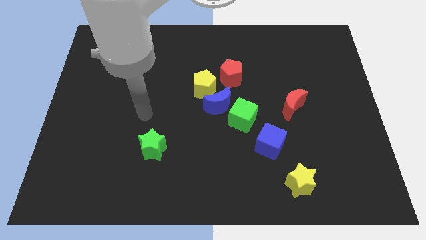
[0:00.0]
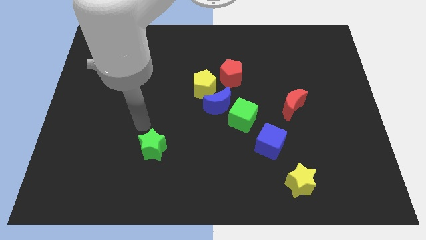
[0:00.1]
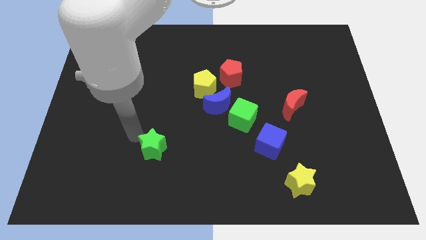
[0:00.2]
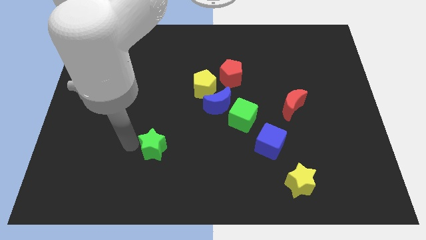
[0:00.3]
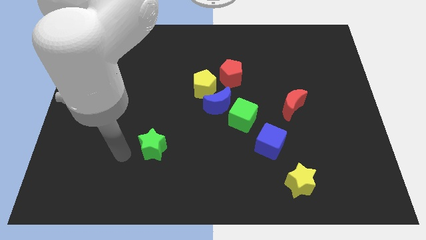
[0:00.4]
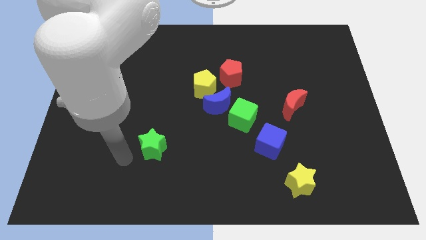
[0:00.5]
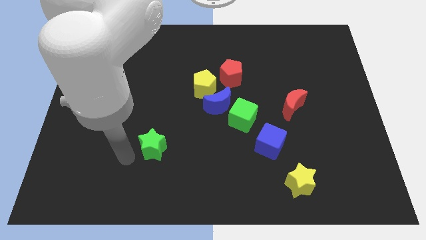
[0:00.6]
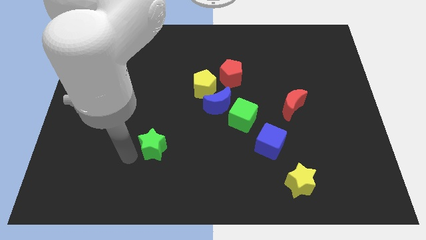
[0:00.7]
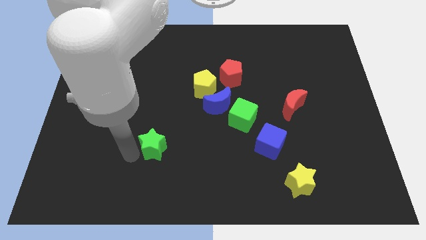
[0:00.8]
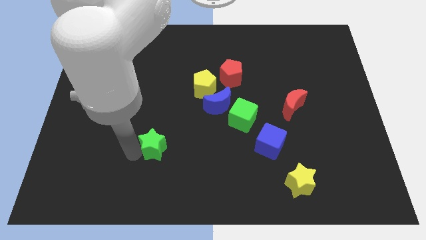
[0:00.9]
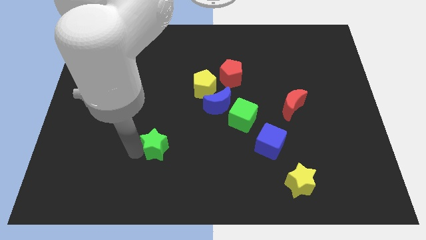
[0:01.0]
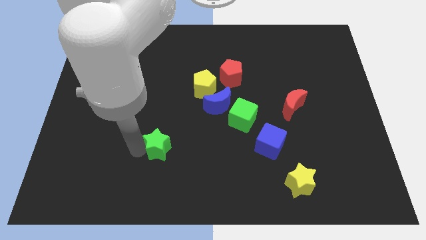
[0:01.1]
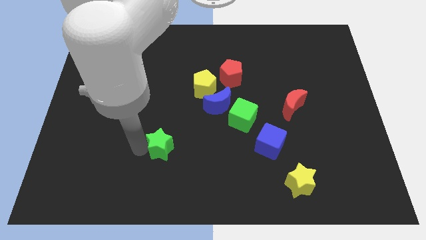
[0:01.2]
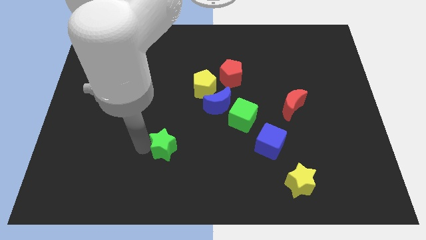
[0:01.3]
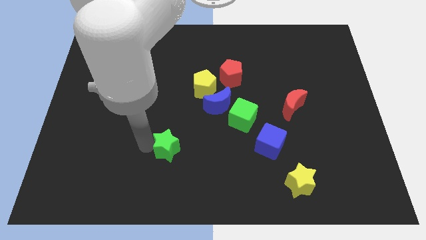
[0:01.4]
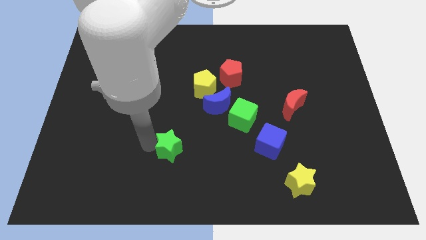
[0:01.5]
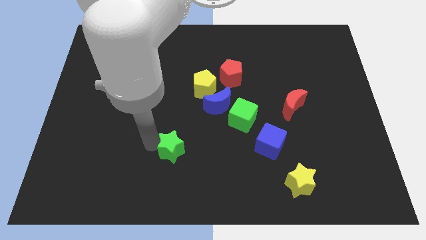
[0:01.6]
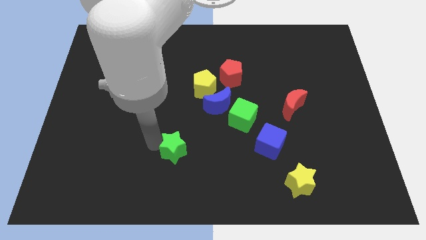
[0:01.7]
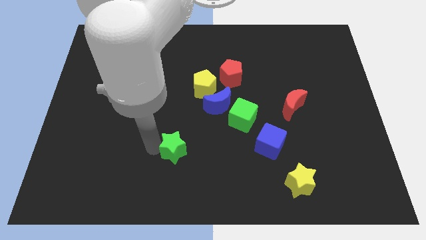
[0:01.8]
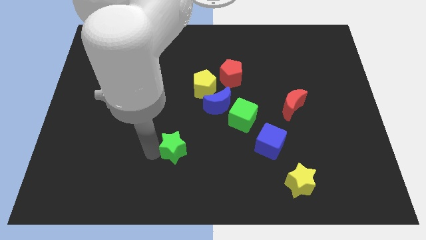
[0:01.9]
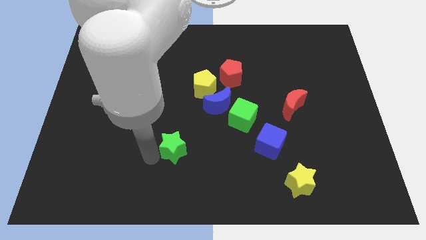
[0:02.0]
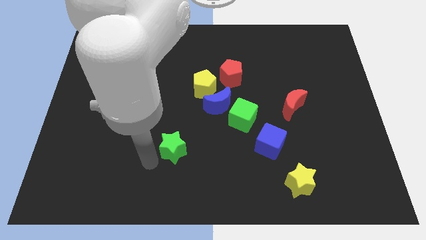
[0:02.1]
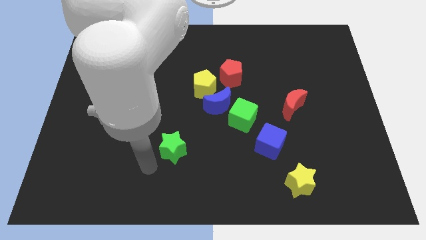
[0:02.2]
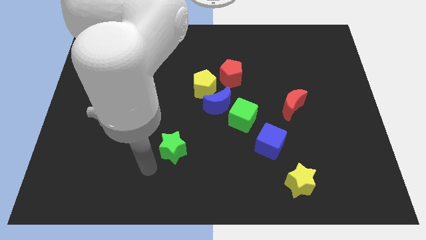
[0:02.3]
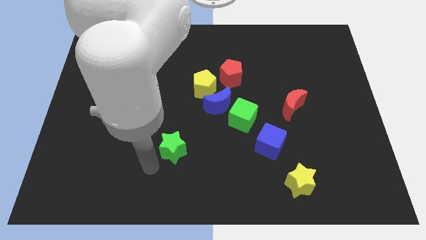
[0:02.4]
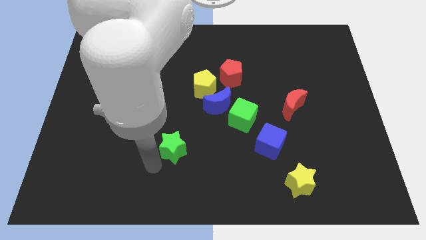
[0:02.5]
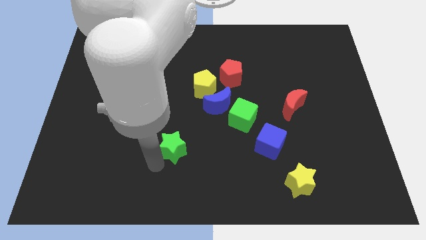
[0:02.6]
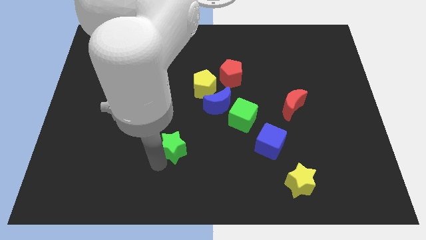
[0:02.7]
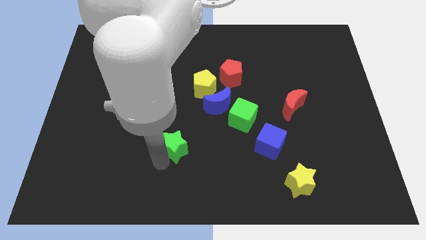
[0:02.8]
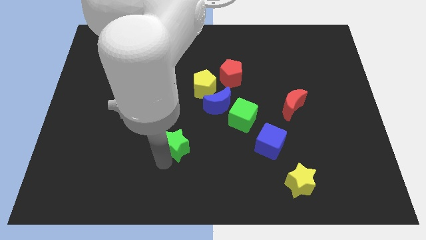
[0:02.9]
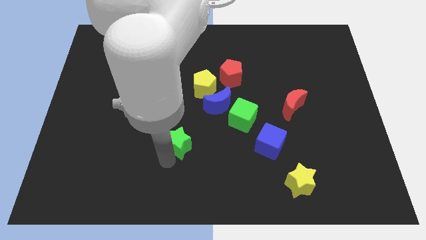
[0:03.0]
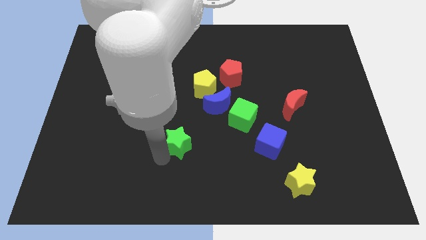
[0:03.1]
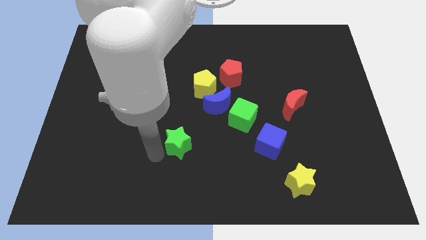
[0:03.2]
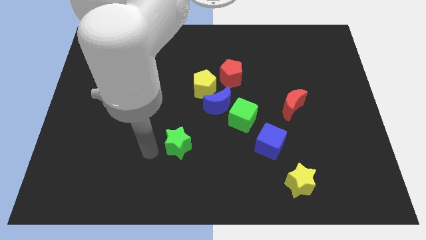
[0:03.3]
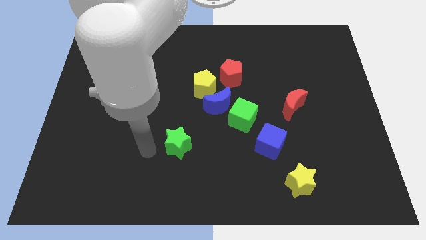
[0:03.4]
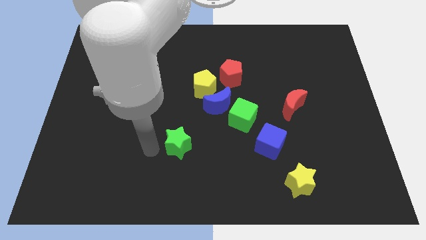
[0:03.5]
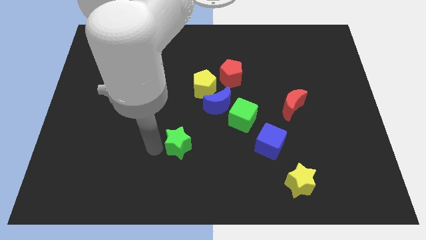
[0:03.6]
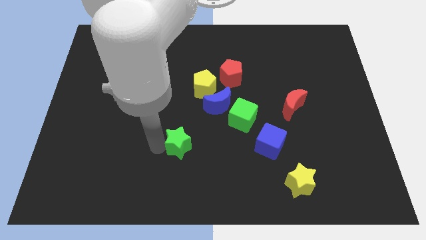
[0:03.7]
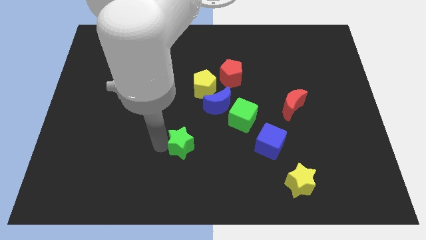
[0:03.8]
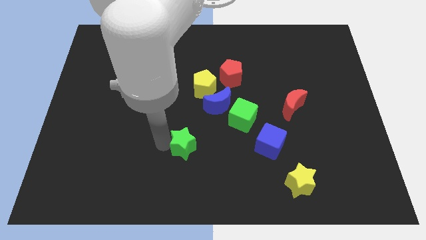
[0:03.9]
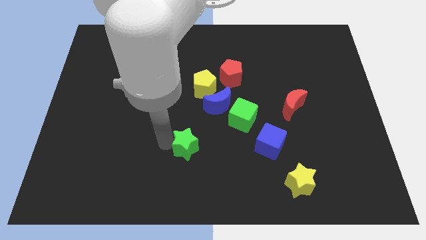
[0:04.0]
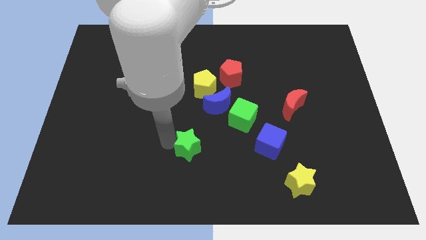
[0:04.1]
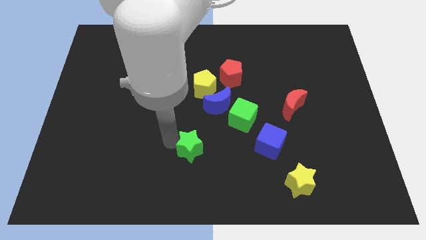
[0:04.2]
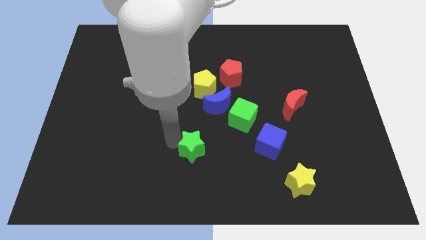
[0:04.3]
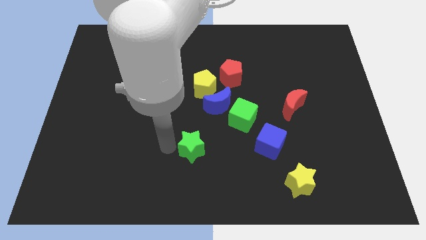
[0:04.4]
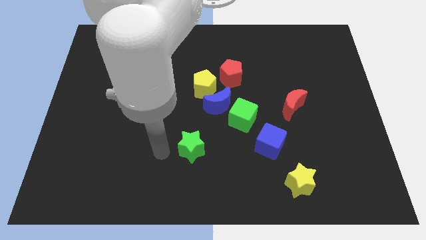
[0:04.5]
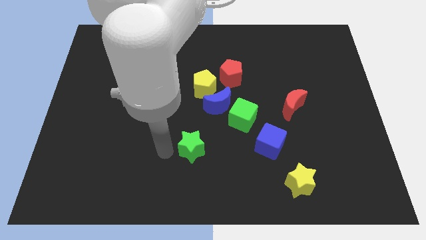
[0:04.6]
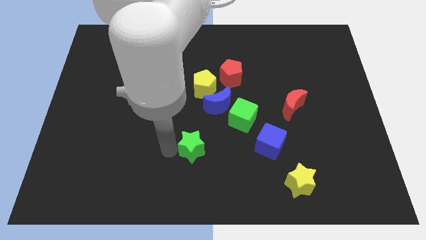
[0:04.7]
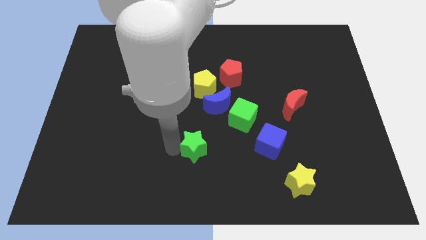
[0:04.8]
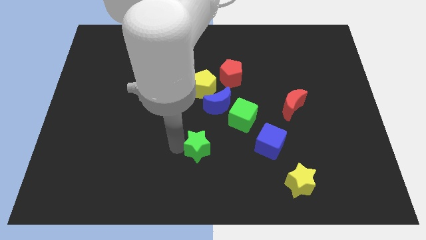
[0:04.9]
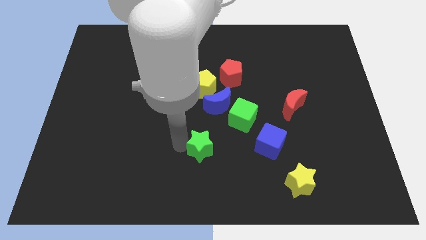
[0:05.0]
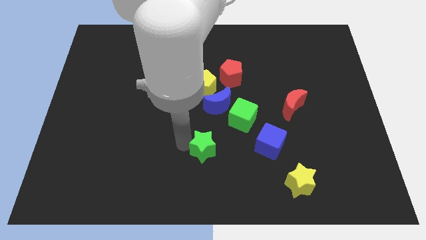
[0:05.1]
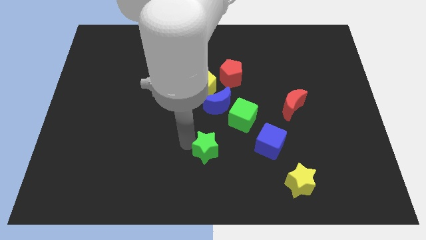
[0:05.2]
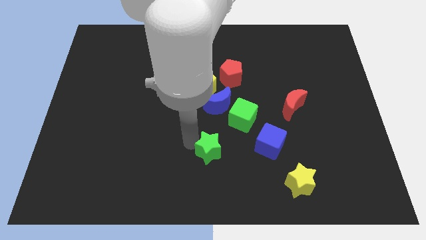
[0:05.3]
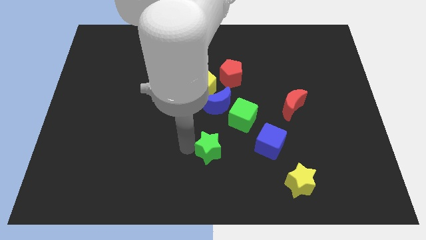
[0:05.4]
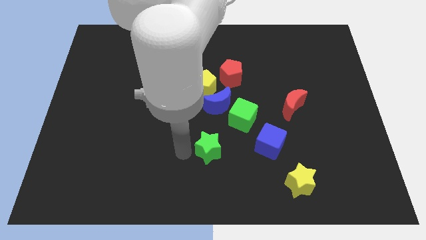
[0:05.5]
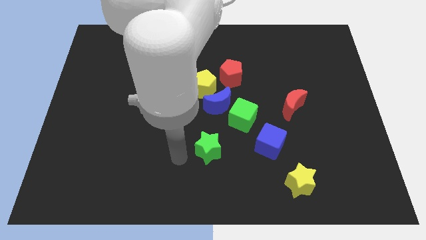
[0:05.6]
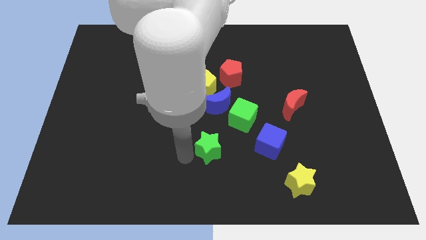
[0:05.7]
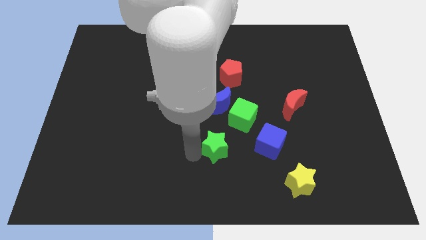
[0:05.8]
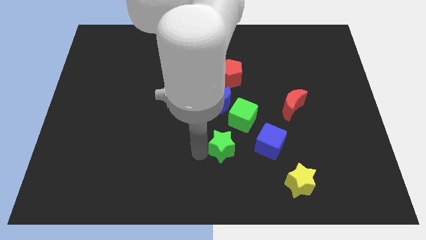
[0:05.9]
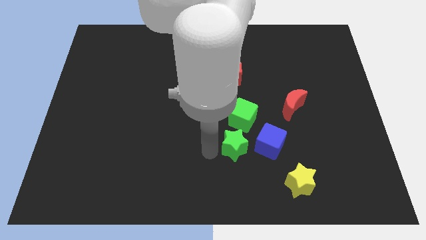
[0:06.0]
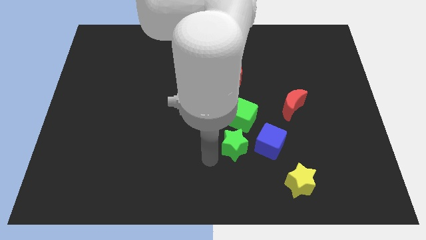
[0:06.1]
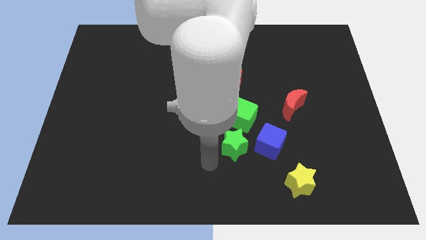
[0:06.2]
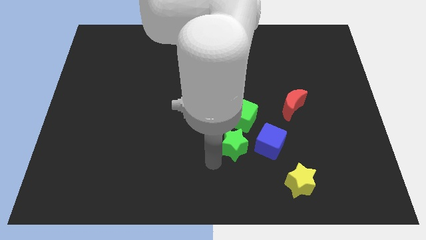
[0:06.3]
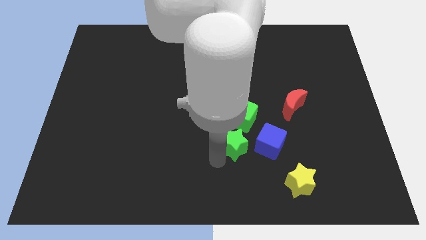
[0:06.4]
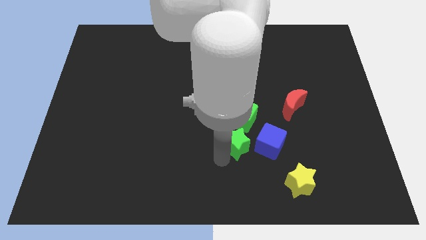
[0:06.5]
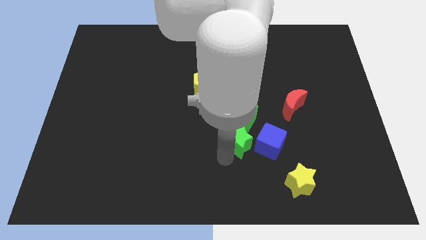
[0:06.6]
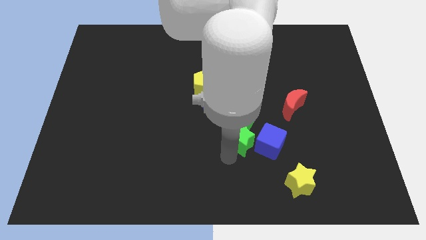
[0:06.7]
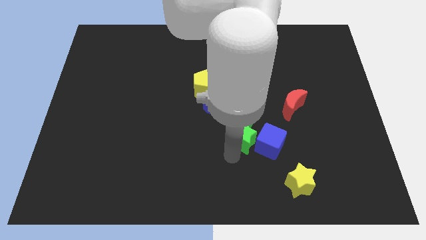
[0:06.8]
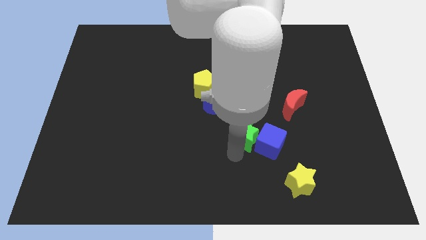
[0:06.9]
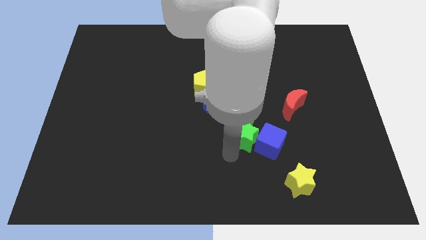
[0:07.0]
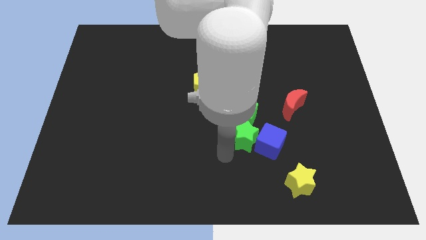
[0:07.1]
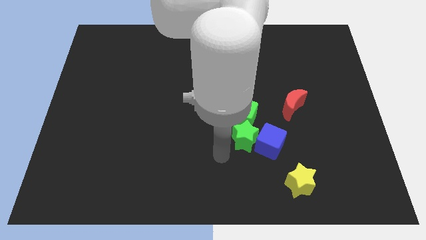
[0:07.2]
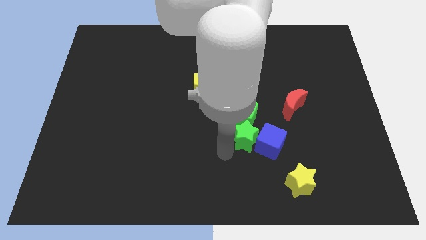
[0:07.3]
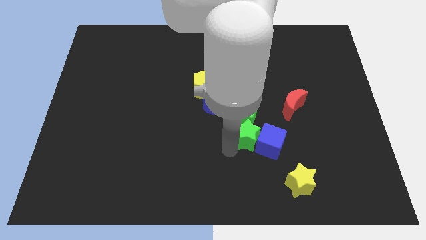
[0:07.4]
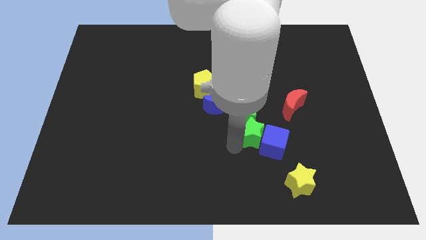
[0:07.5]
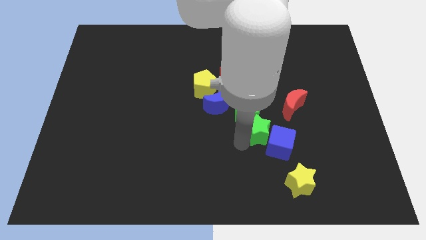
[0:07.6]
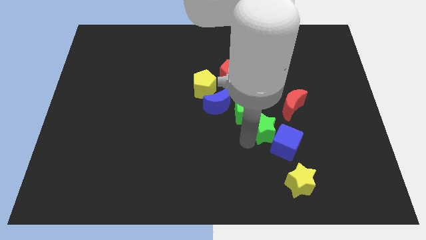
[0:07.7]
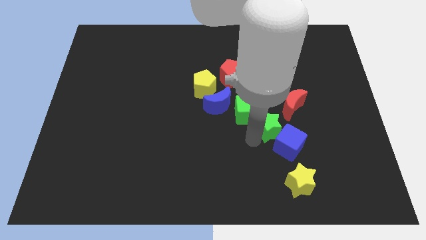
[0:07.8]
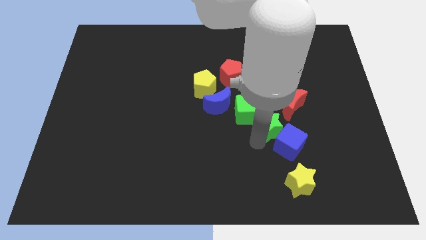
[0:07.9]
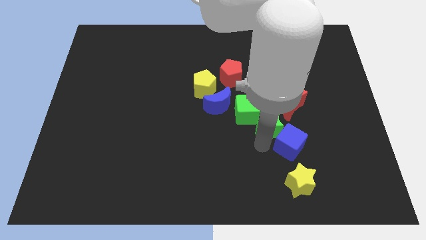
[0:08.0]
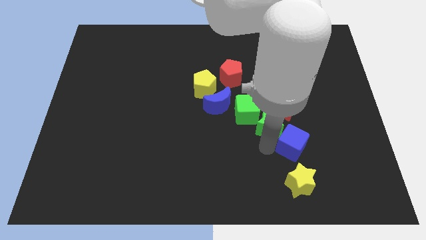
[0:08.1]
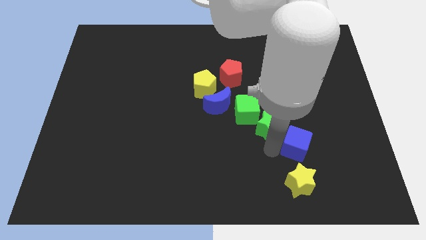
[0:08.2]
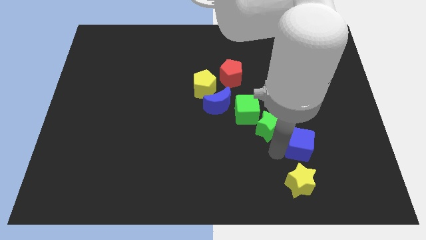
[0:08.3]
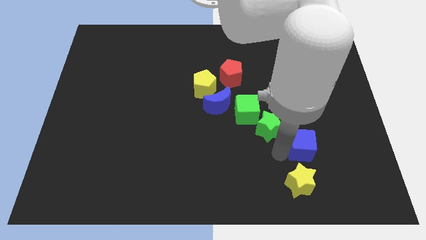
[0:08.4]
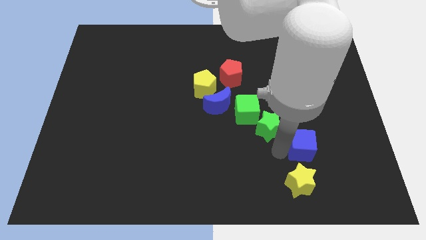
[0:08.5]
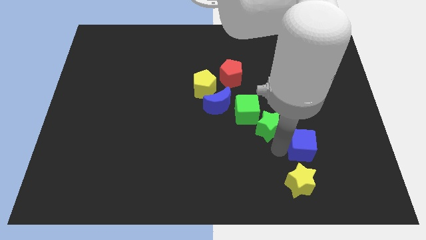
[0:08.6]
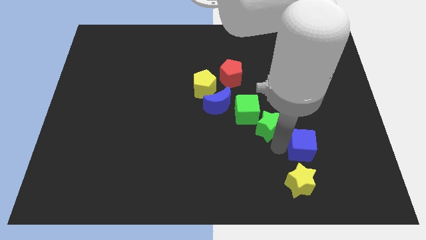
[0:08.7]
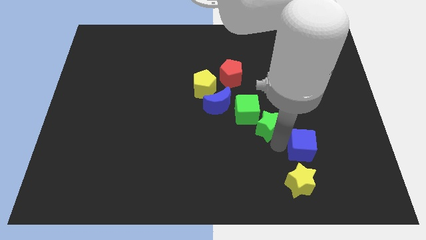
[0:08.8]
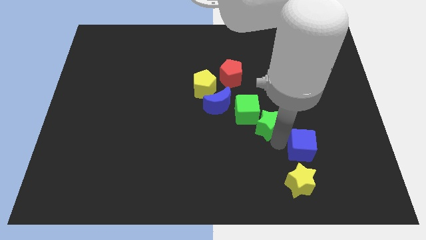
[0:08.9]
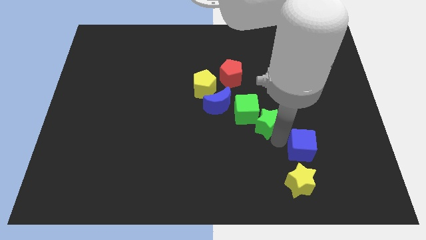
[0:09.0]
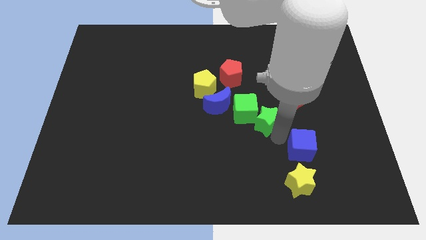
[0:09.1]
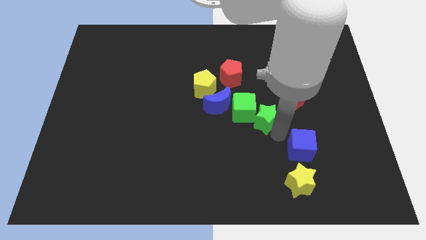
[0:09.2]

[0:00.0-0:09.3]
move the green star right of the blue moon
